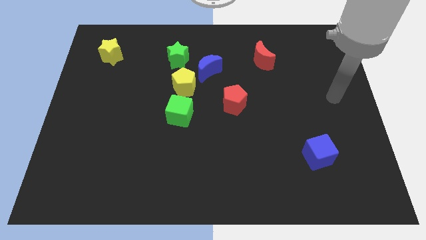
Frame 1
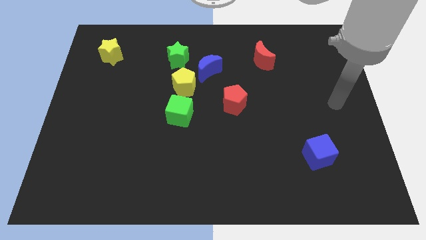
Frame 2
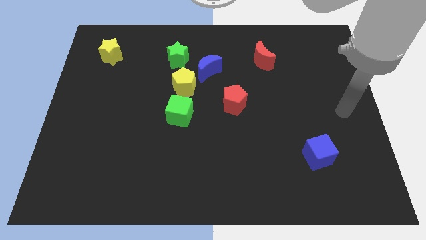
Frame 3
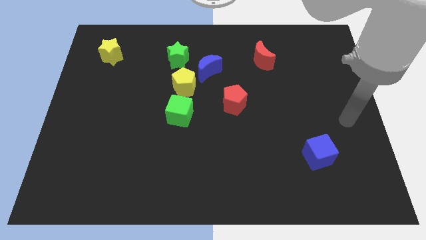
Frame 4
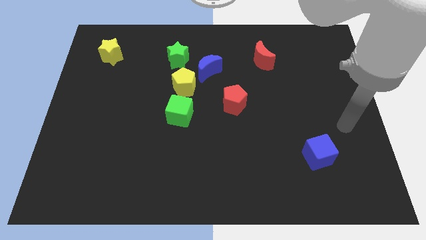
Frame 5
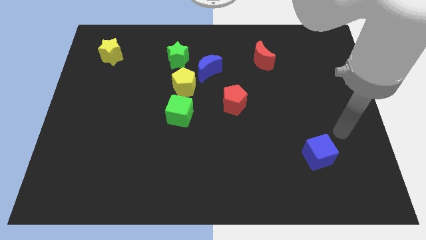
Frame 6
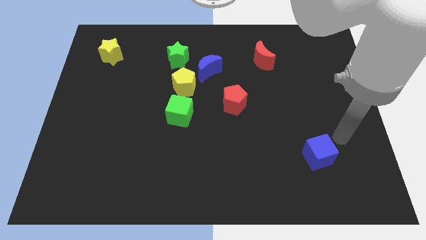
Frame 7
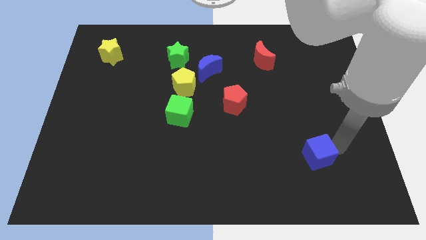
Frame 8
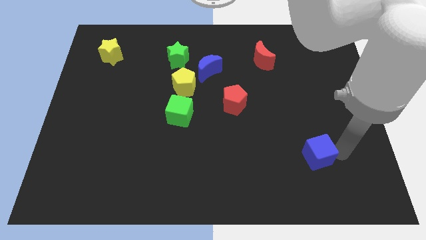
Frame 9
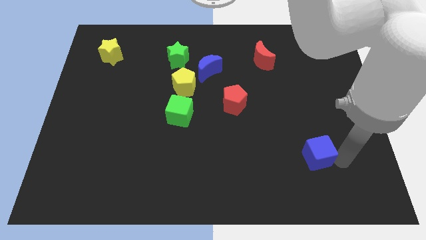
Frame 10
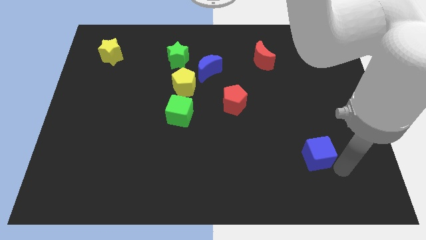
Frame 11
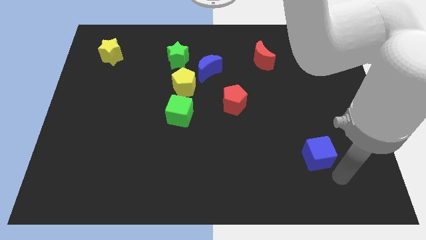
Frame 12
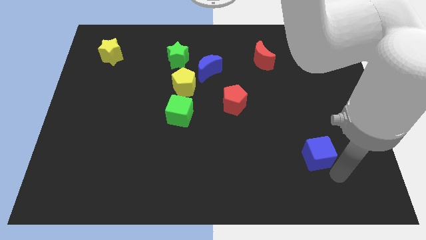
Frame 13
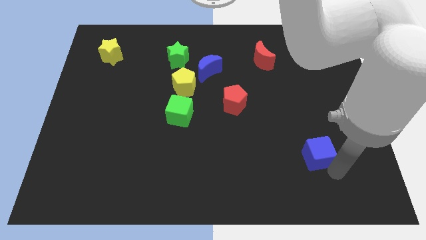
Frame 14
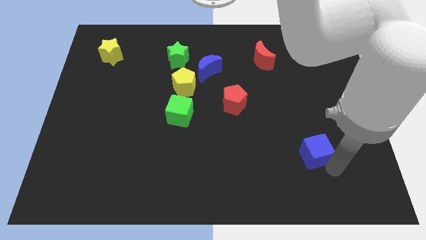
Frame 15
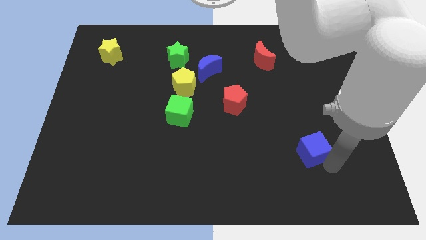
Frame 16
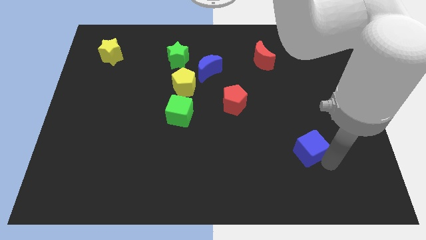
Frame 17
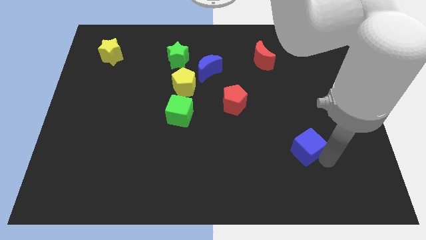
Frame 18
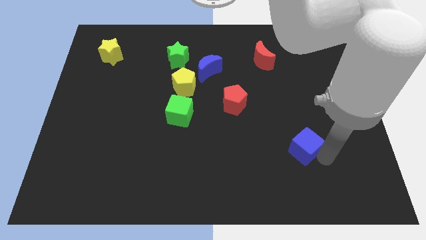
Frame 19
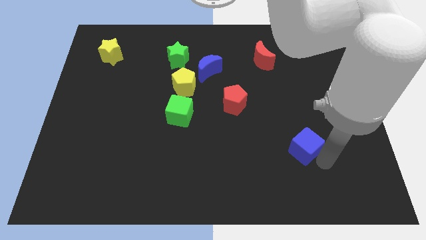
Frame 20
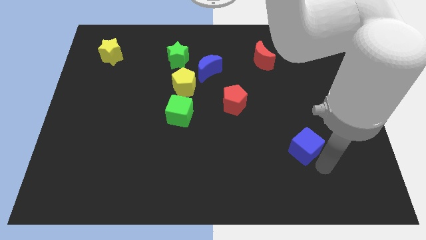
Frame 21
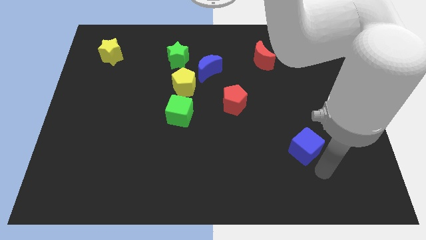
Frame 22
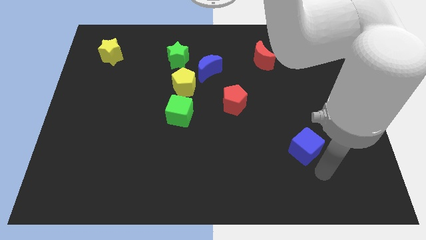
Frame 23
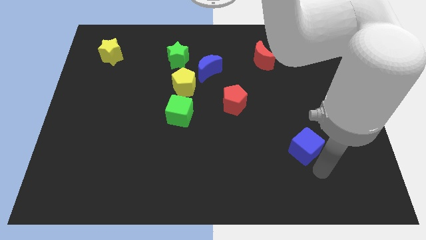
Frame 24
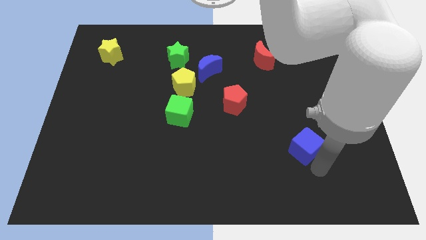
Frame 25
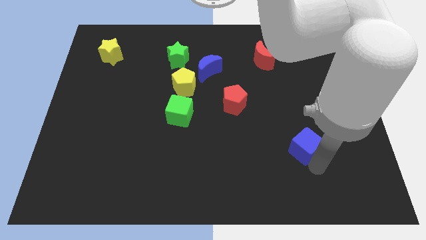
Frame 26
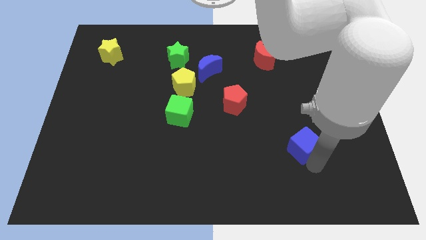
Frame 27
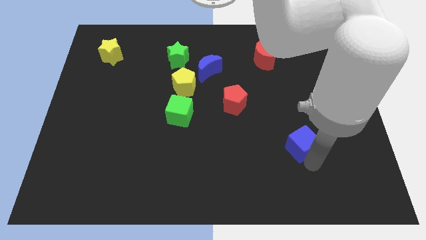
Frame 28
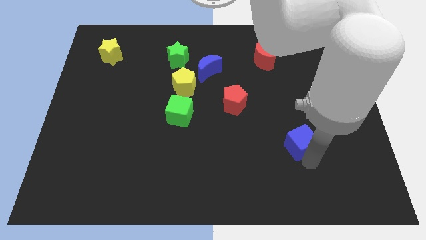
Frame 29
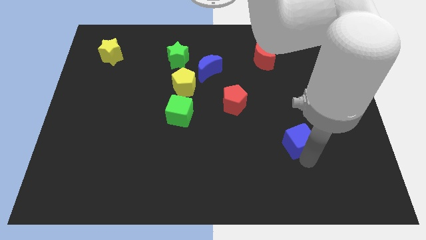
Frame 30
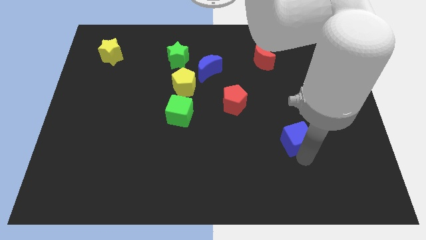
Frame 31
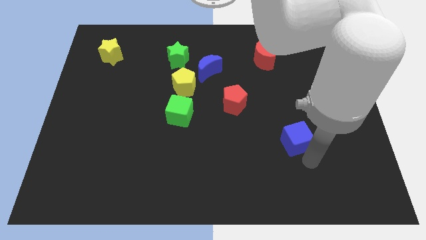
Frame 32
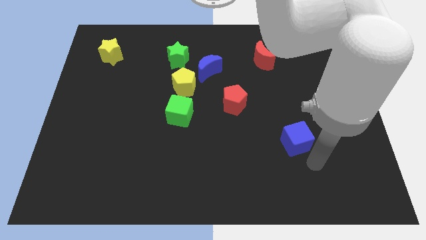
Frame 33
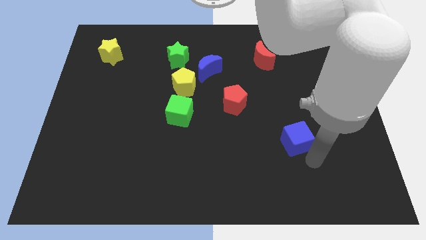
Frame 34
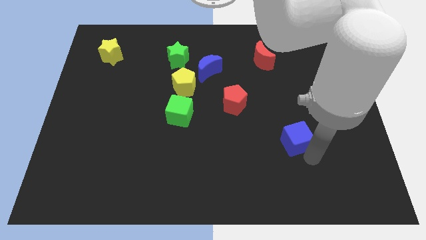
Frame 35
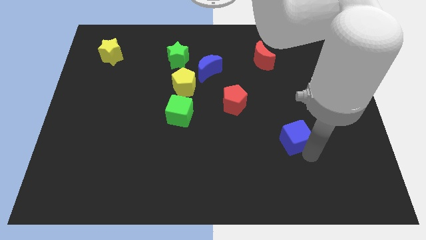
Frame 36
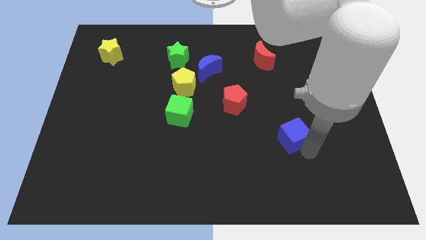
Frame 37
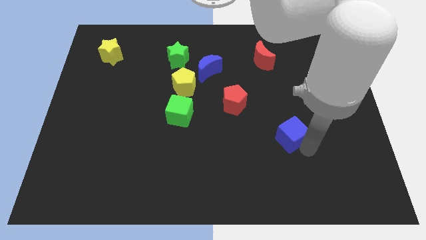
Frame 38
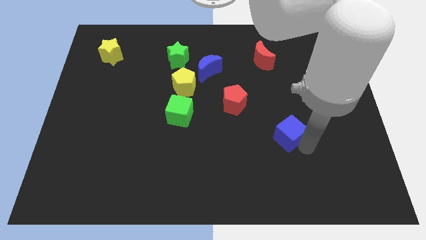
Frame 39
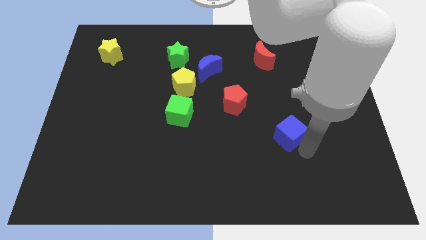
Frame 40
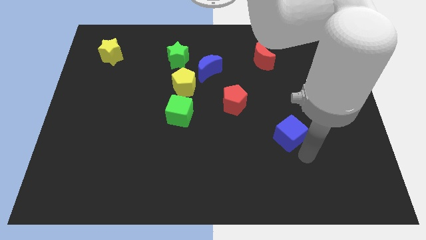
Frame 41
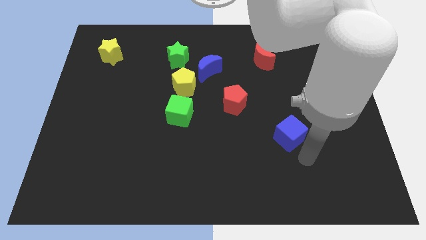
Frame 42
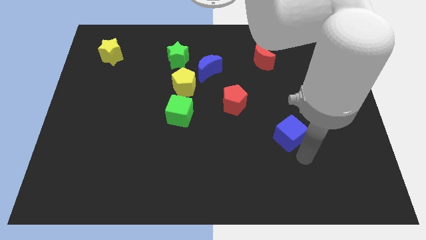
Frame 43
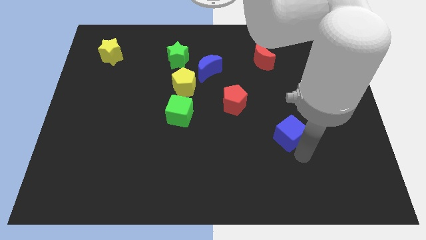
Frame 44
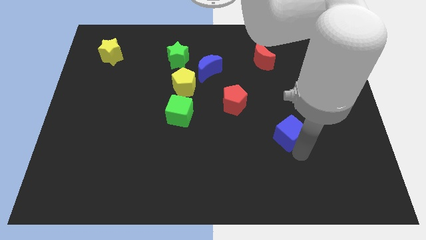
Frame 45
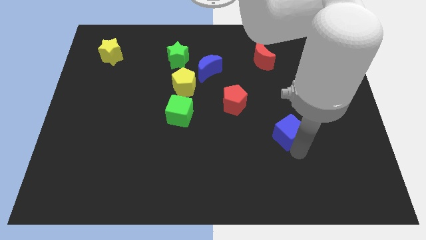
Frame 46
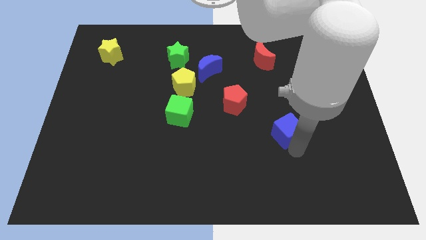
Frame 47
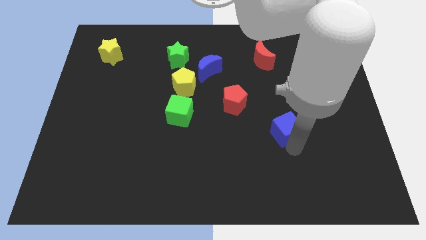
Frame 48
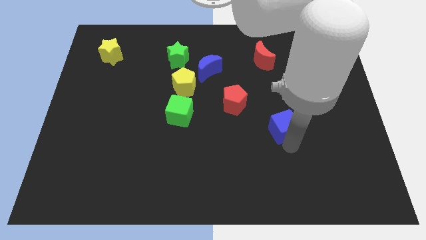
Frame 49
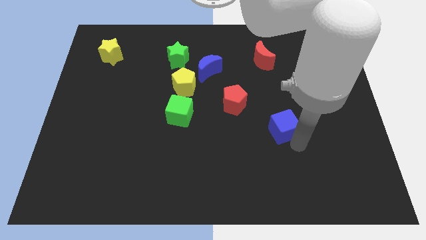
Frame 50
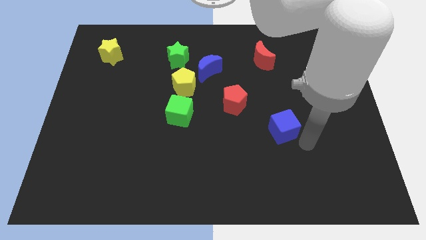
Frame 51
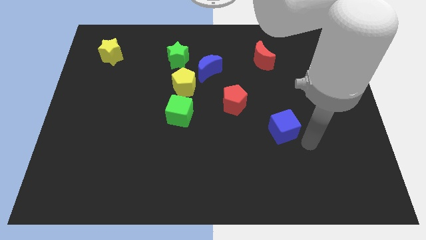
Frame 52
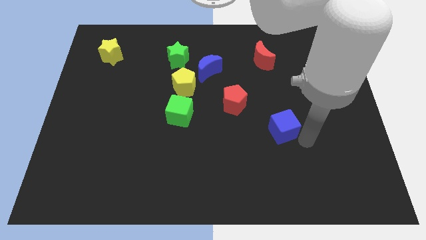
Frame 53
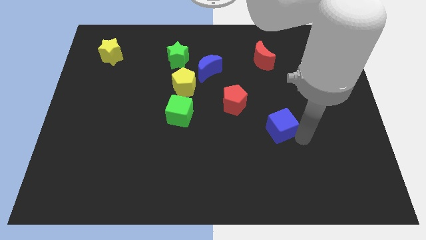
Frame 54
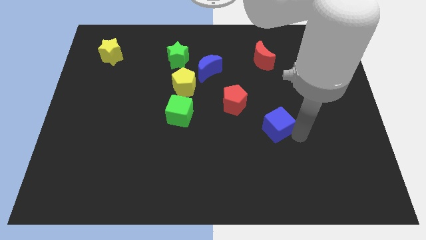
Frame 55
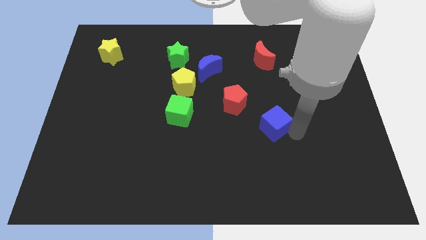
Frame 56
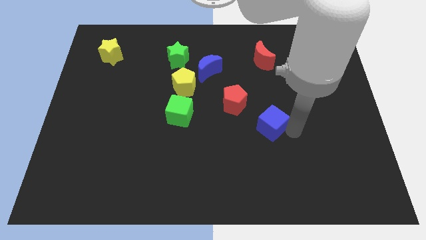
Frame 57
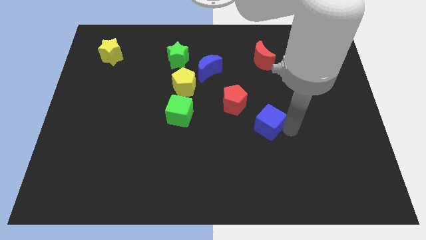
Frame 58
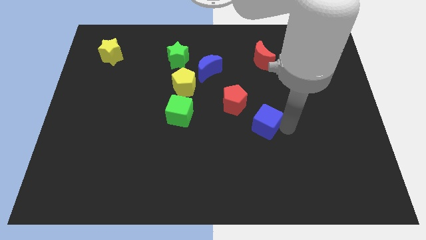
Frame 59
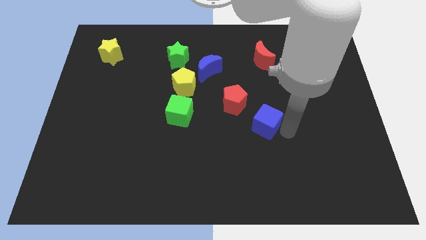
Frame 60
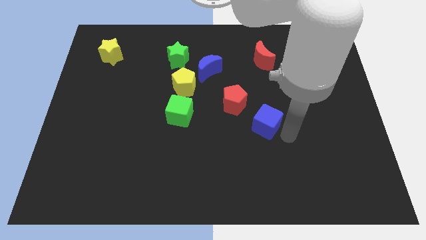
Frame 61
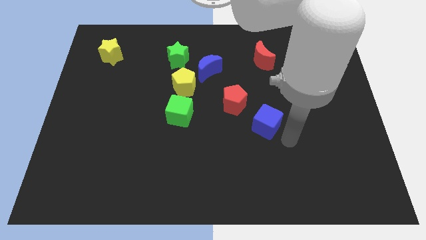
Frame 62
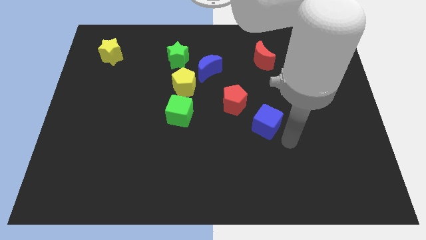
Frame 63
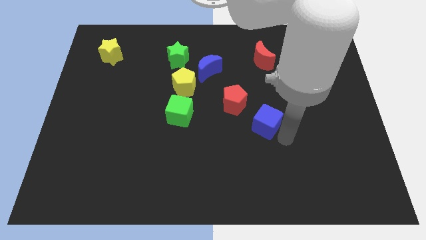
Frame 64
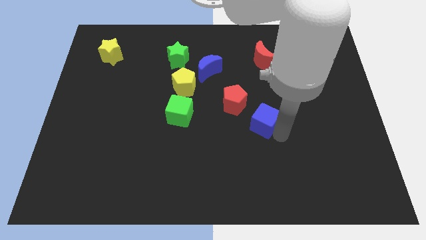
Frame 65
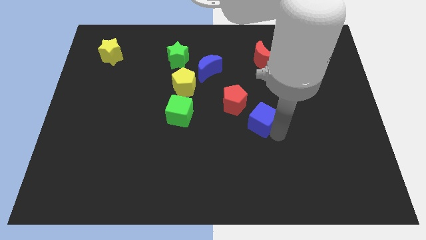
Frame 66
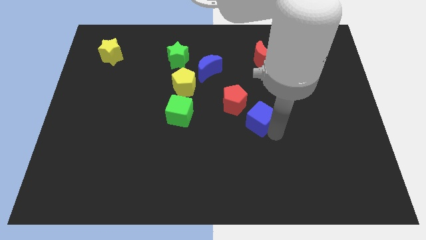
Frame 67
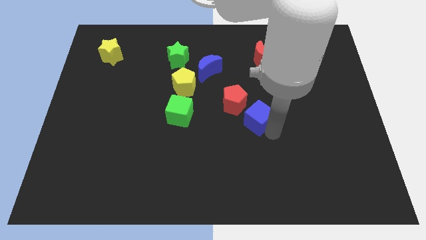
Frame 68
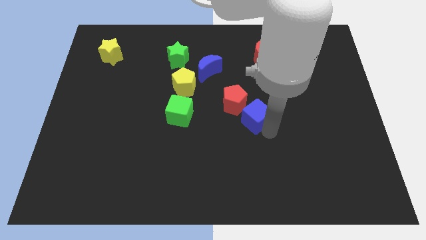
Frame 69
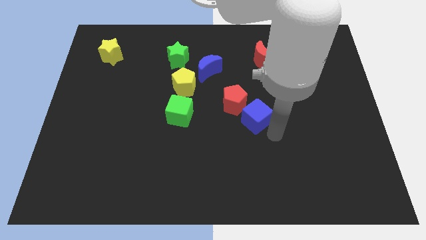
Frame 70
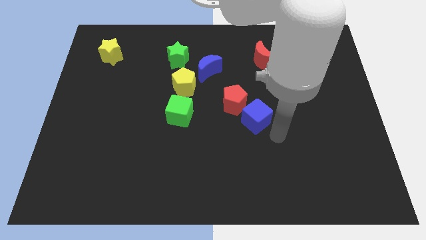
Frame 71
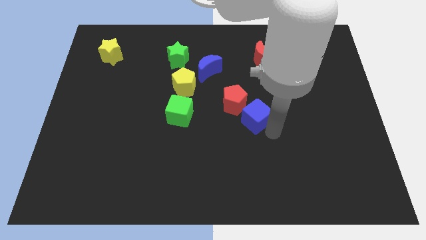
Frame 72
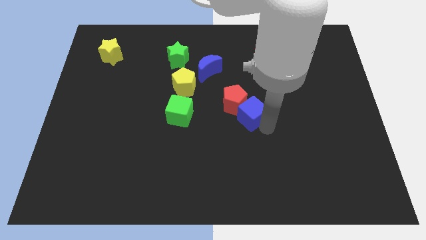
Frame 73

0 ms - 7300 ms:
move the blue cube close to the red pentagon

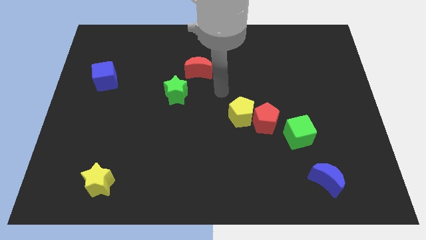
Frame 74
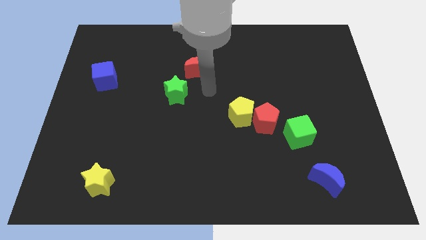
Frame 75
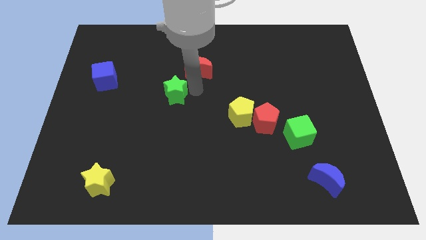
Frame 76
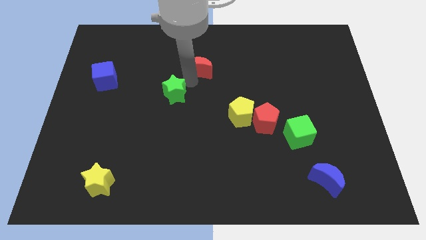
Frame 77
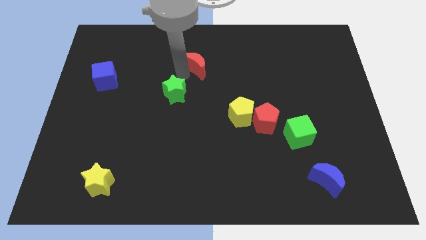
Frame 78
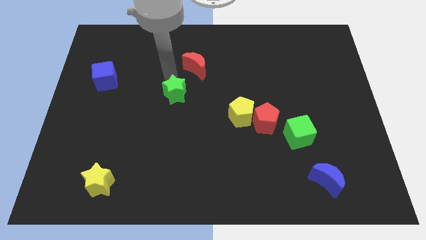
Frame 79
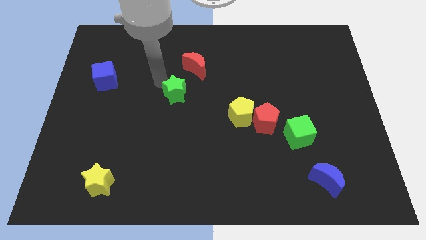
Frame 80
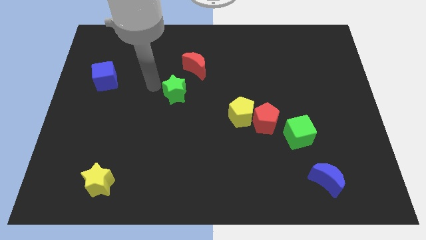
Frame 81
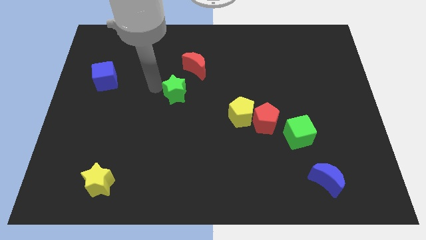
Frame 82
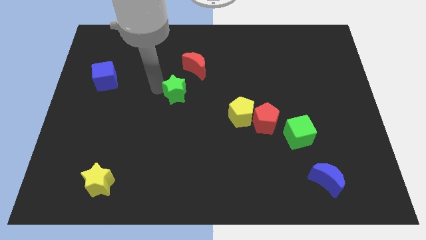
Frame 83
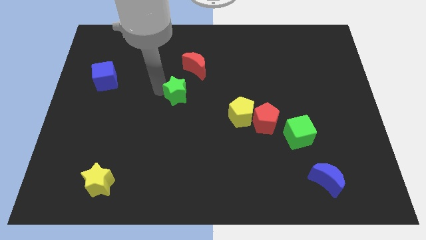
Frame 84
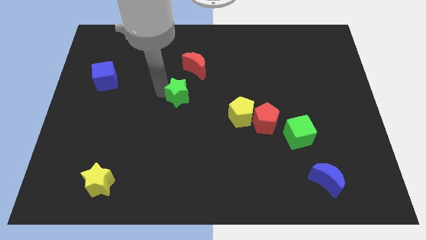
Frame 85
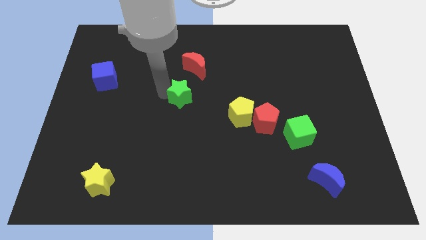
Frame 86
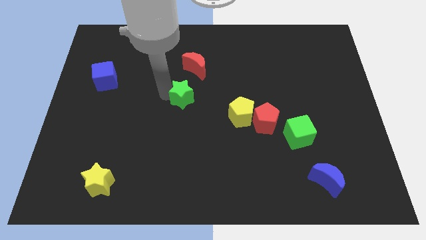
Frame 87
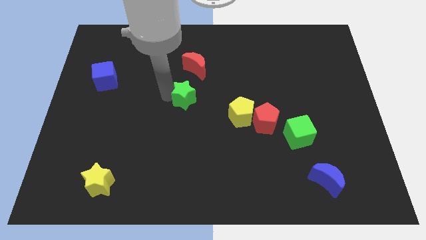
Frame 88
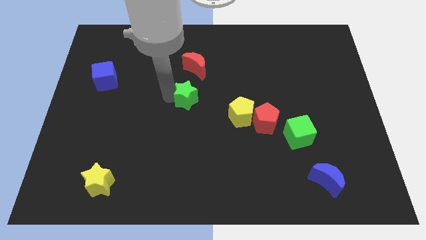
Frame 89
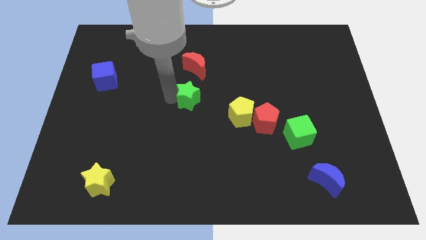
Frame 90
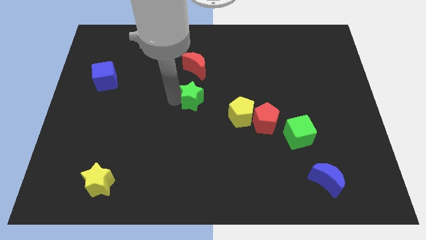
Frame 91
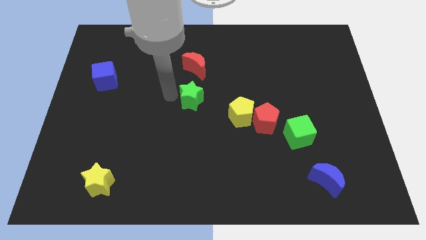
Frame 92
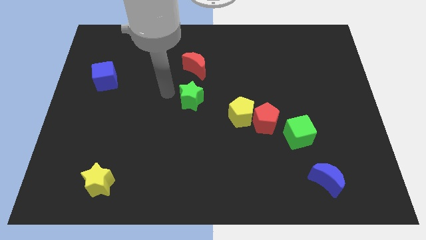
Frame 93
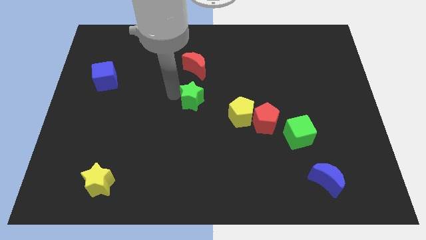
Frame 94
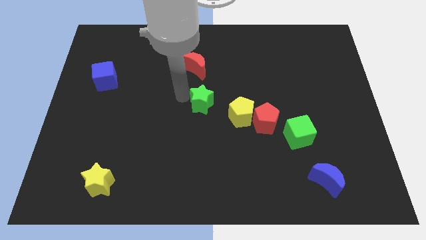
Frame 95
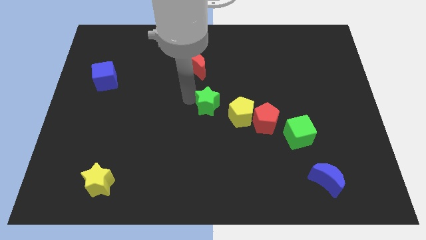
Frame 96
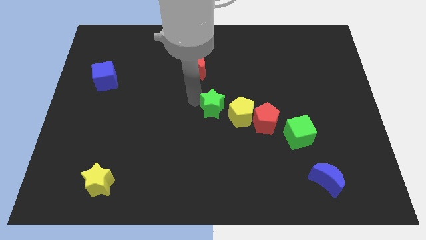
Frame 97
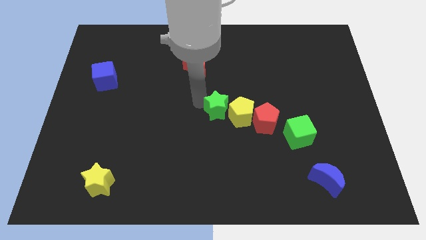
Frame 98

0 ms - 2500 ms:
move the green star next to the yellow pentagon
